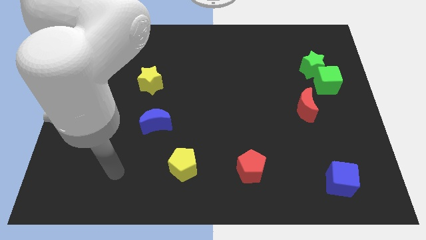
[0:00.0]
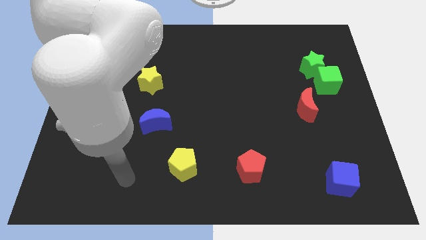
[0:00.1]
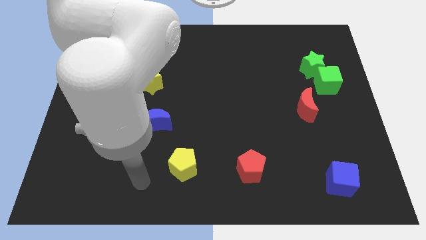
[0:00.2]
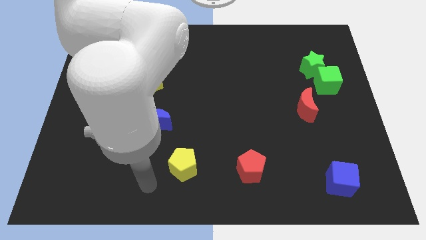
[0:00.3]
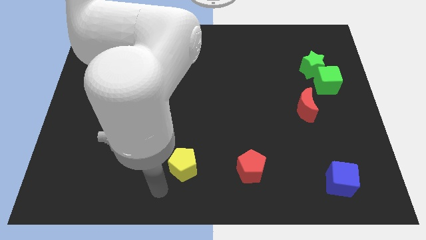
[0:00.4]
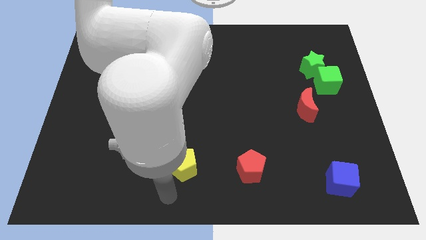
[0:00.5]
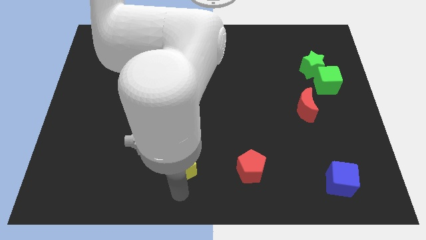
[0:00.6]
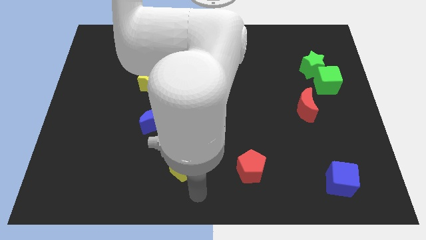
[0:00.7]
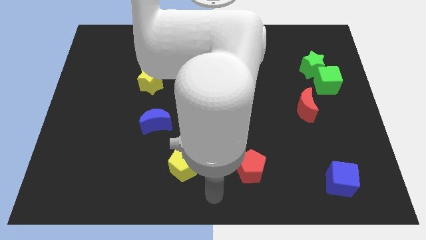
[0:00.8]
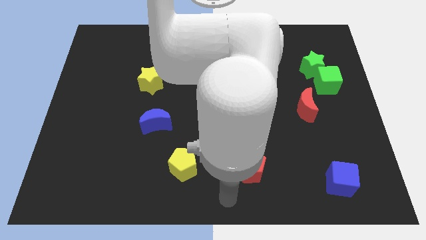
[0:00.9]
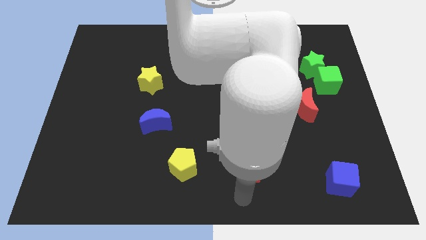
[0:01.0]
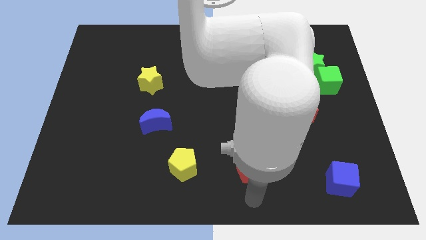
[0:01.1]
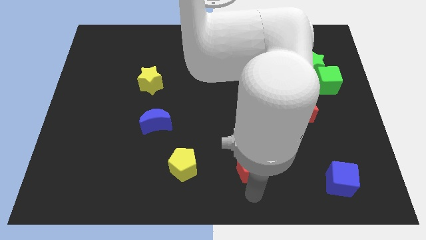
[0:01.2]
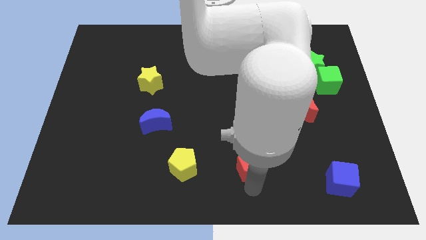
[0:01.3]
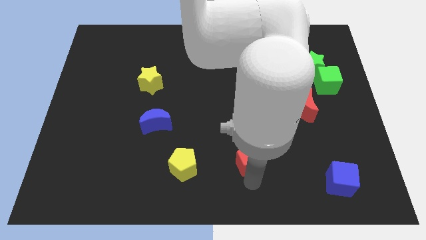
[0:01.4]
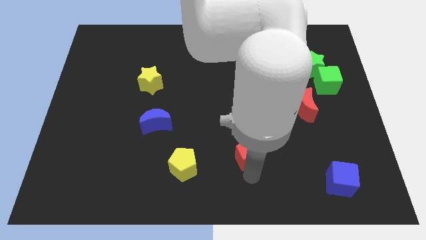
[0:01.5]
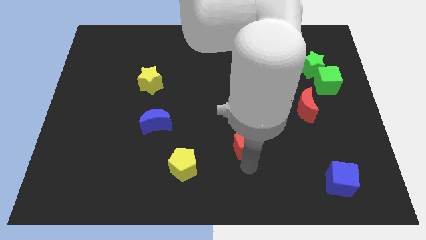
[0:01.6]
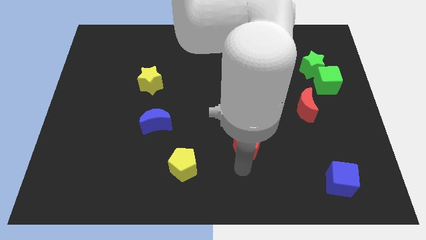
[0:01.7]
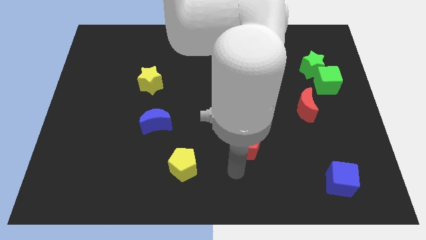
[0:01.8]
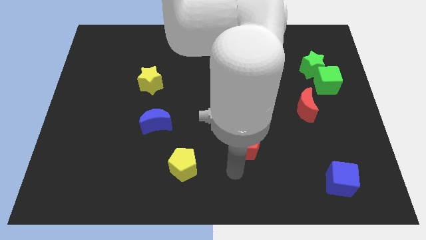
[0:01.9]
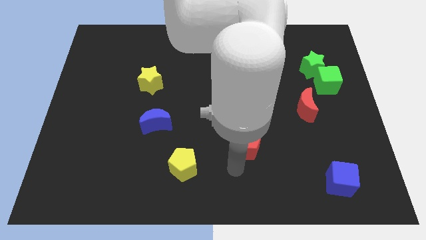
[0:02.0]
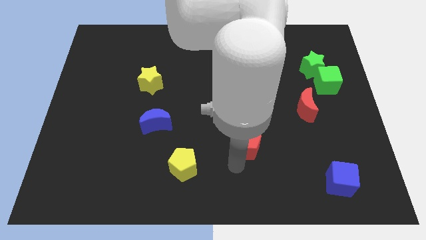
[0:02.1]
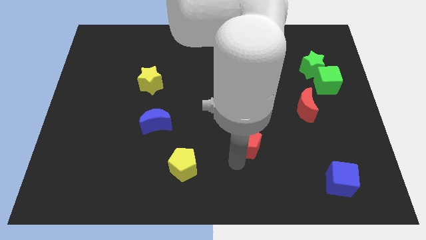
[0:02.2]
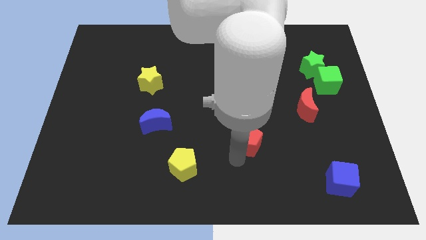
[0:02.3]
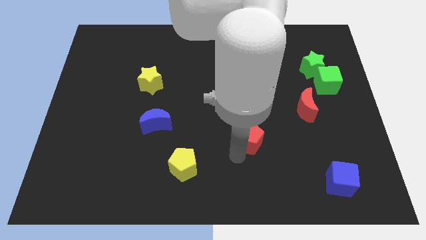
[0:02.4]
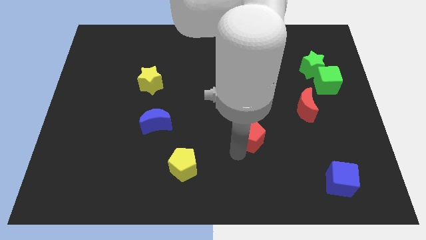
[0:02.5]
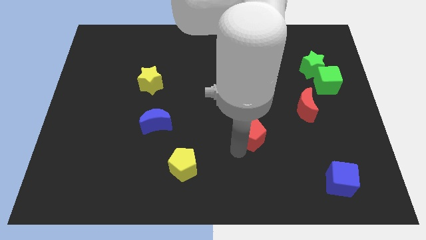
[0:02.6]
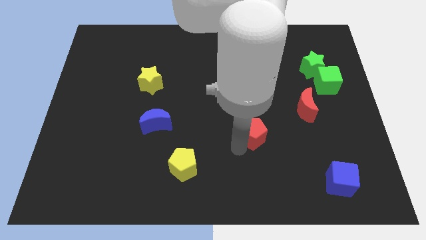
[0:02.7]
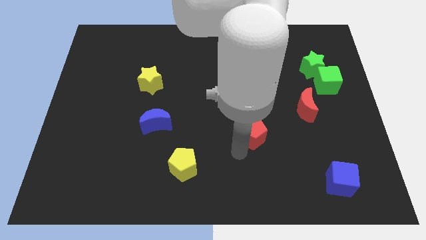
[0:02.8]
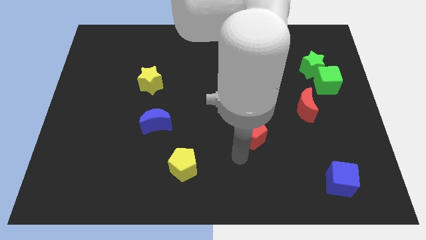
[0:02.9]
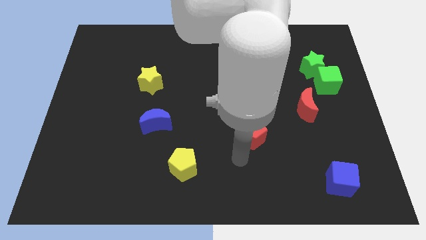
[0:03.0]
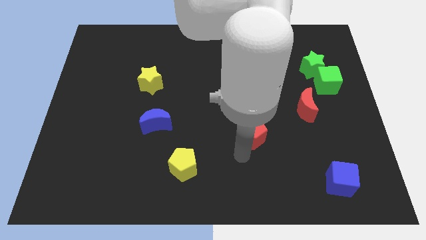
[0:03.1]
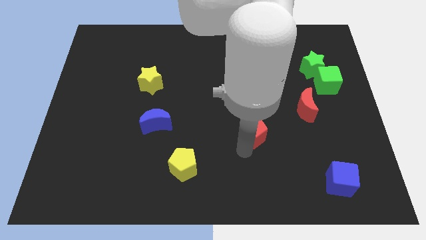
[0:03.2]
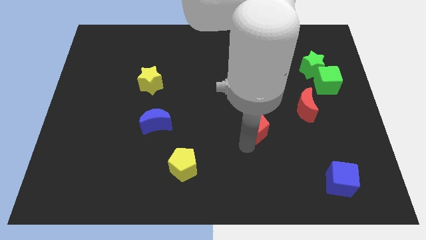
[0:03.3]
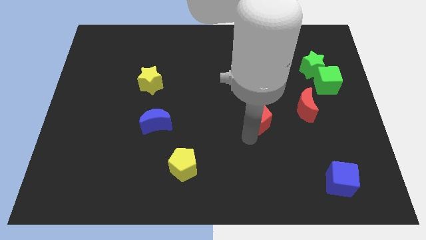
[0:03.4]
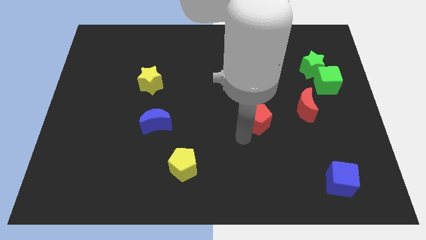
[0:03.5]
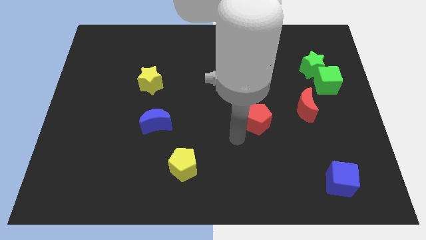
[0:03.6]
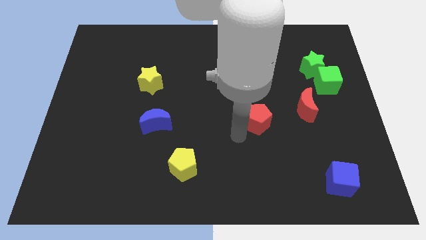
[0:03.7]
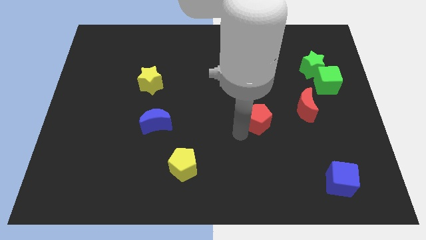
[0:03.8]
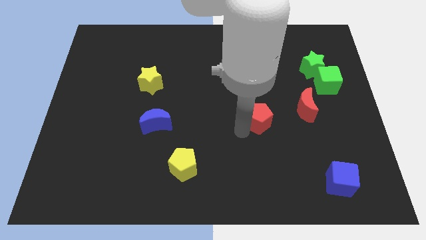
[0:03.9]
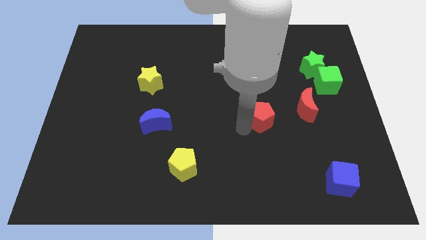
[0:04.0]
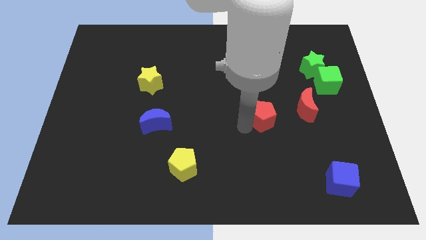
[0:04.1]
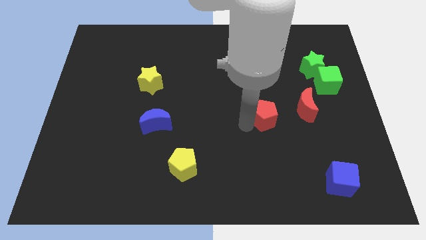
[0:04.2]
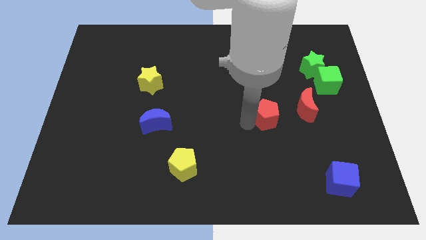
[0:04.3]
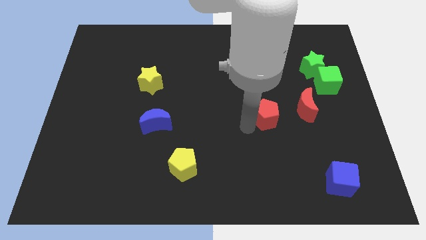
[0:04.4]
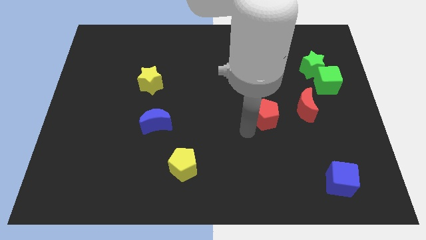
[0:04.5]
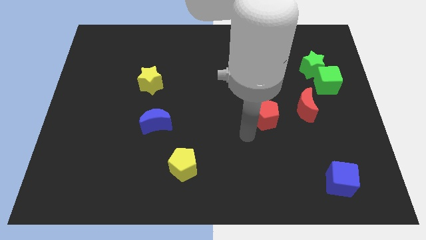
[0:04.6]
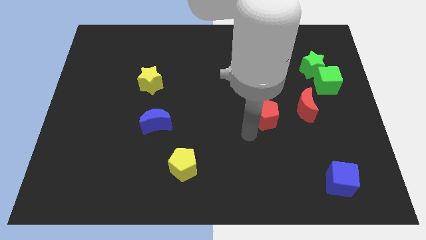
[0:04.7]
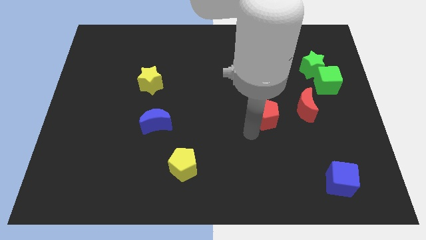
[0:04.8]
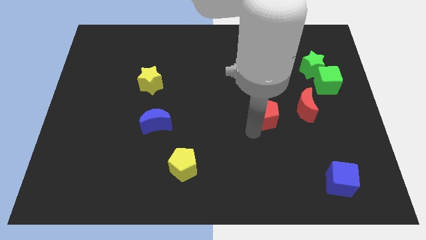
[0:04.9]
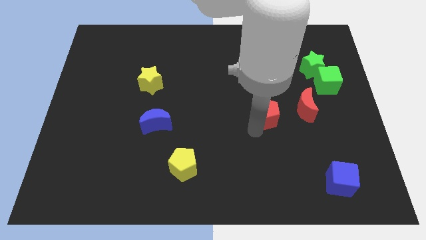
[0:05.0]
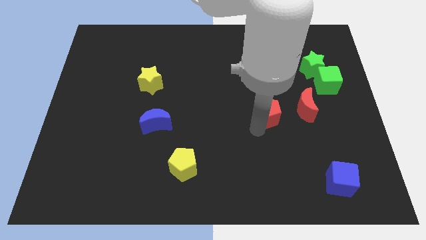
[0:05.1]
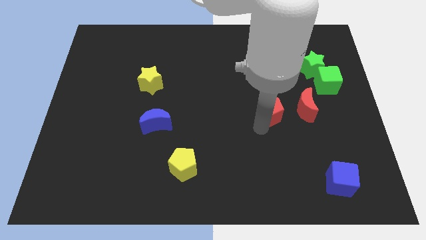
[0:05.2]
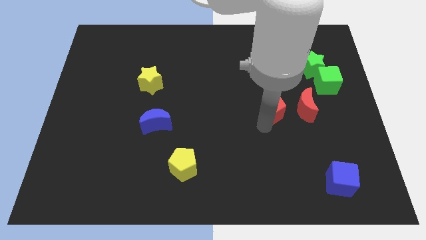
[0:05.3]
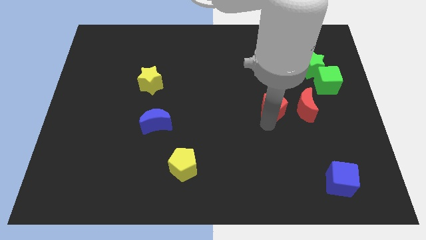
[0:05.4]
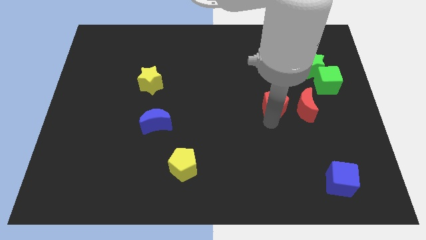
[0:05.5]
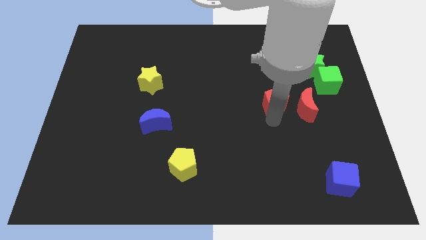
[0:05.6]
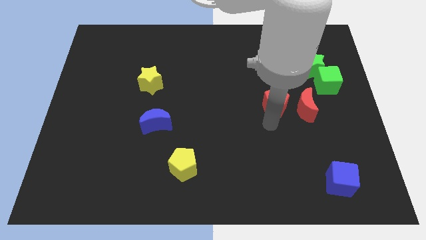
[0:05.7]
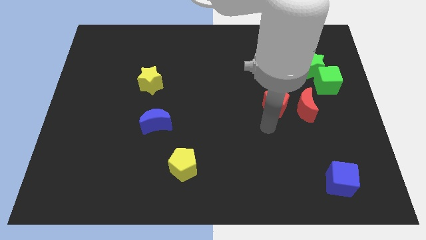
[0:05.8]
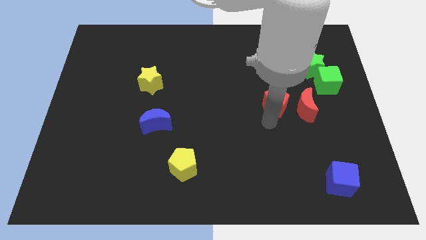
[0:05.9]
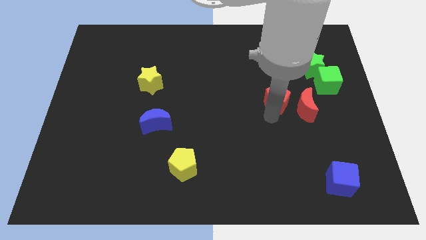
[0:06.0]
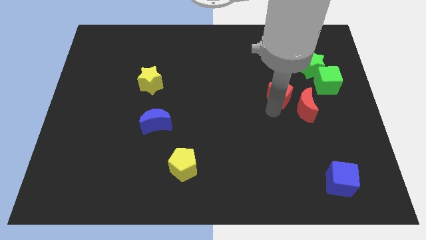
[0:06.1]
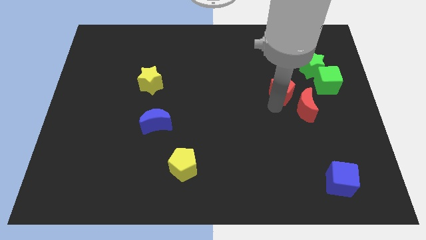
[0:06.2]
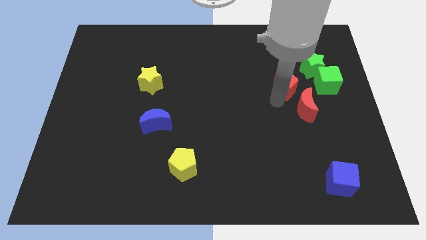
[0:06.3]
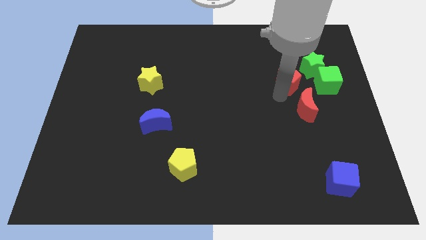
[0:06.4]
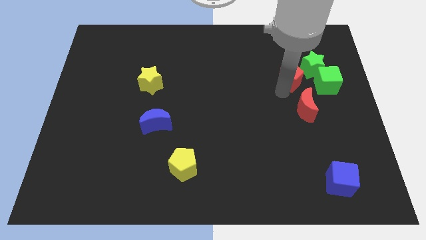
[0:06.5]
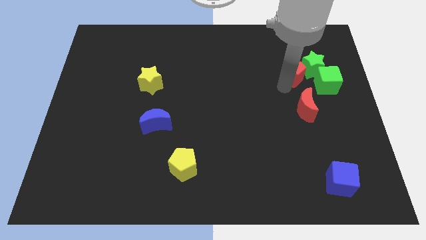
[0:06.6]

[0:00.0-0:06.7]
push the red pentagon to the top left of the green cube

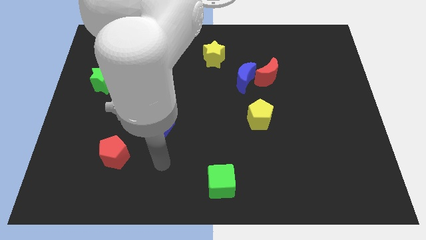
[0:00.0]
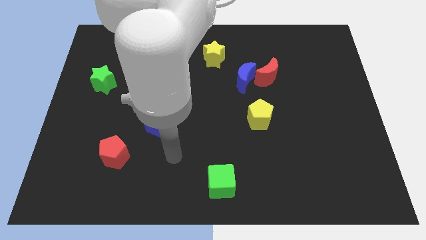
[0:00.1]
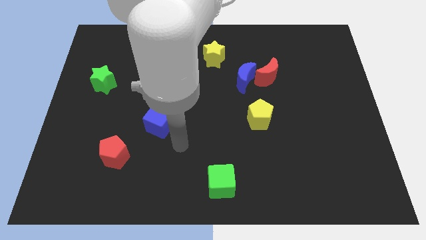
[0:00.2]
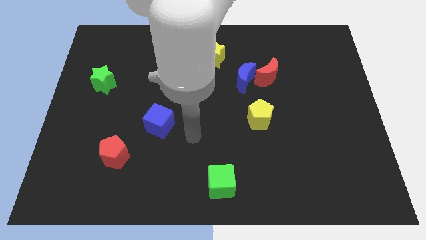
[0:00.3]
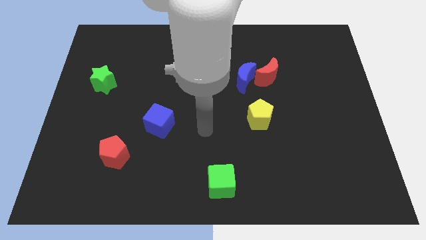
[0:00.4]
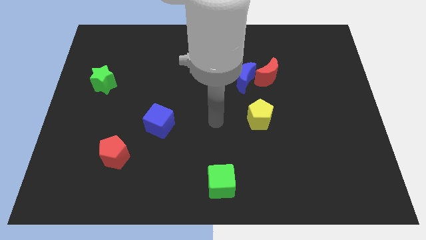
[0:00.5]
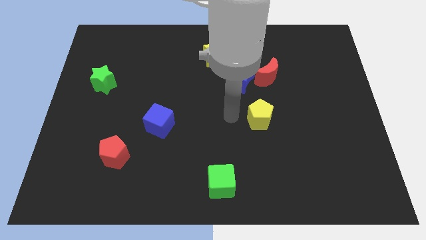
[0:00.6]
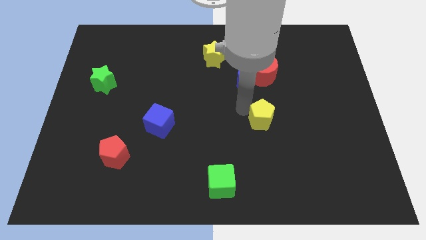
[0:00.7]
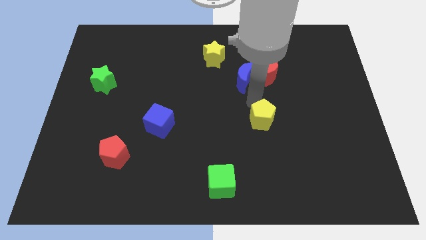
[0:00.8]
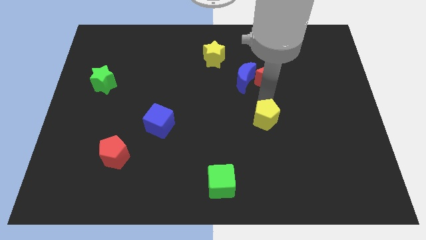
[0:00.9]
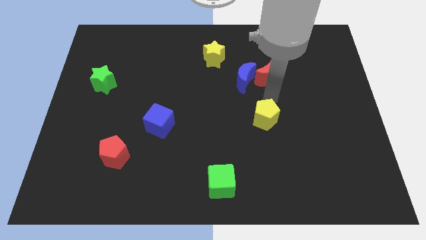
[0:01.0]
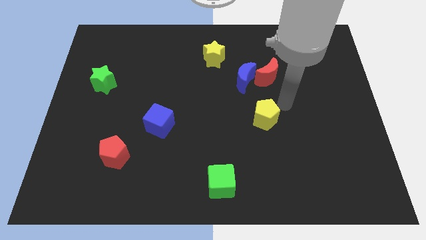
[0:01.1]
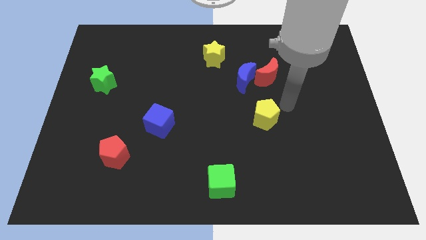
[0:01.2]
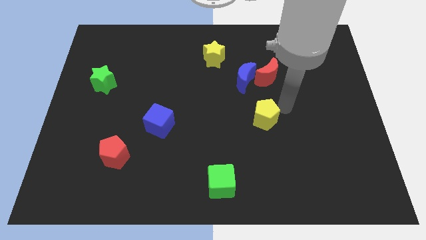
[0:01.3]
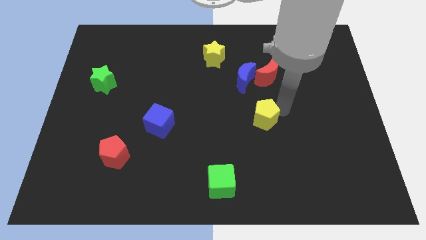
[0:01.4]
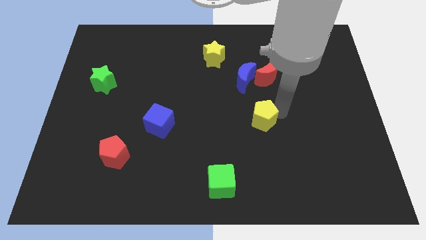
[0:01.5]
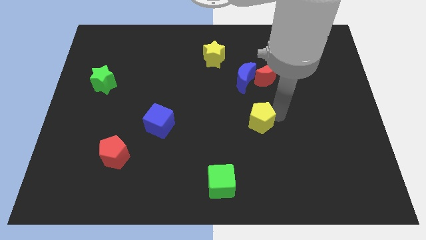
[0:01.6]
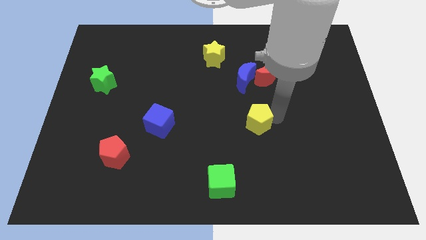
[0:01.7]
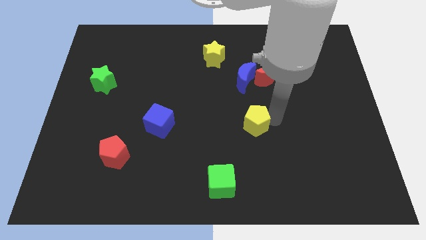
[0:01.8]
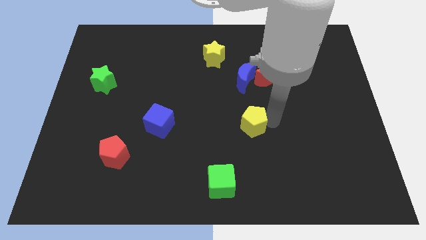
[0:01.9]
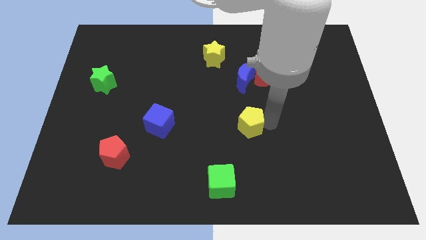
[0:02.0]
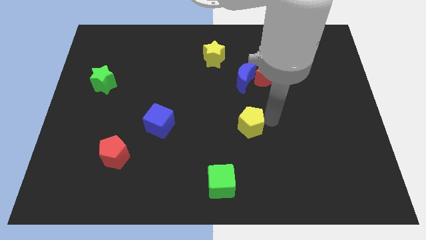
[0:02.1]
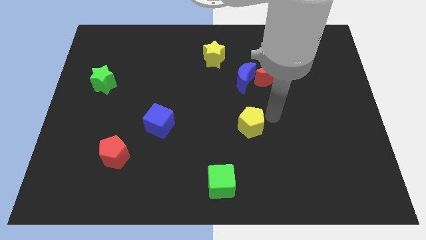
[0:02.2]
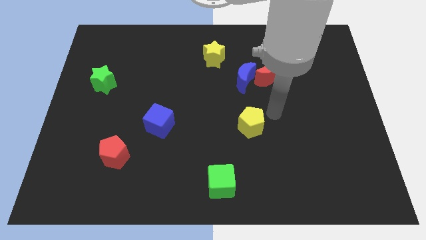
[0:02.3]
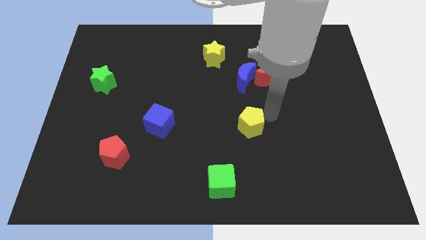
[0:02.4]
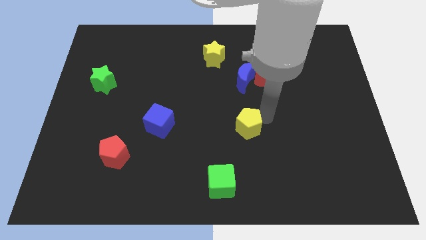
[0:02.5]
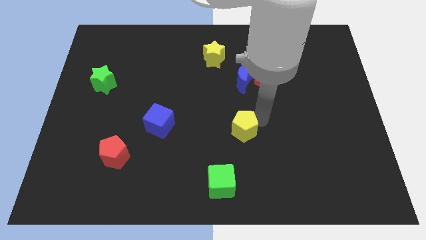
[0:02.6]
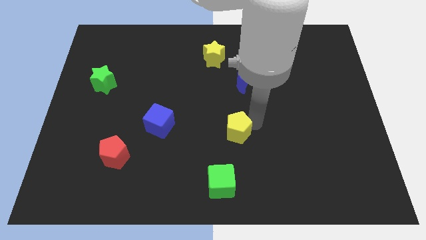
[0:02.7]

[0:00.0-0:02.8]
slide the yellow pentagon to the top side of the green cube
